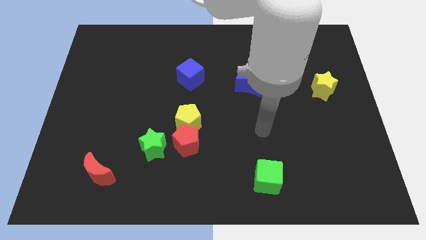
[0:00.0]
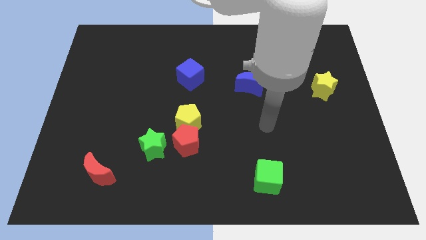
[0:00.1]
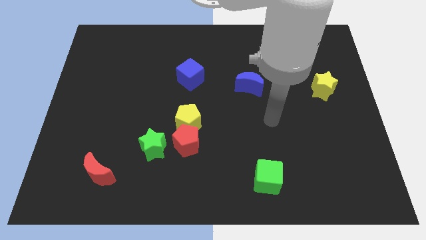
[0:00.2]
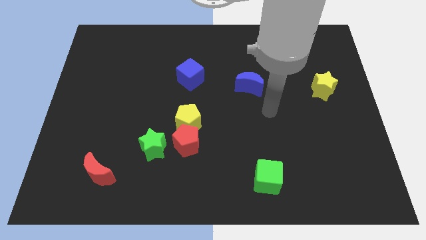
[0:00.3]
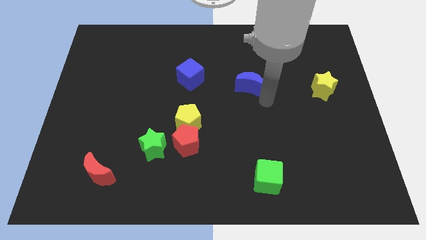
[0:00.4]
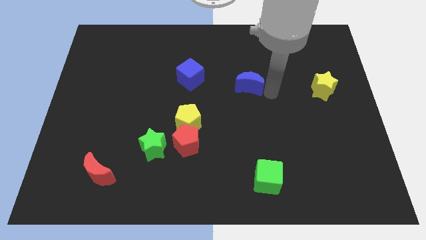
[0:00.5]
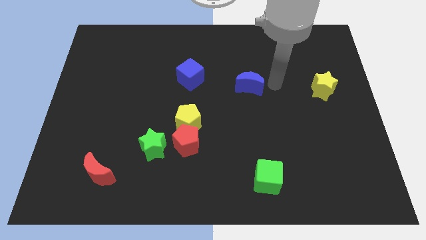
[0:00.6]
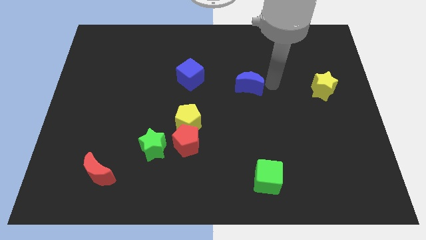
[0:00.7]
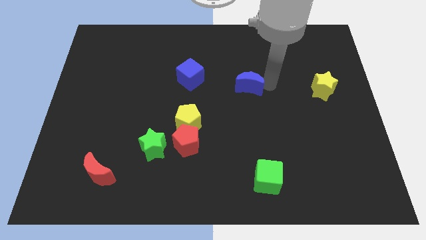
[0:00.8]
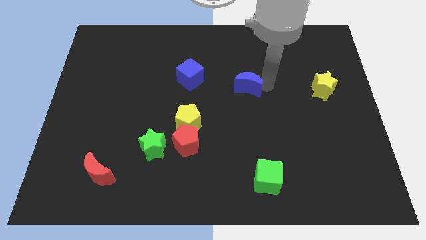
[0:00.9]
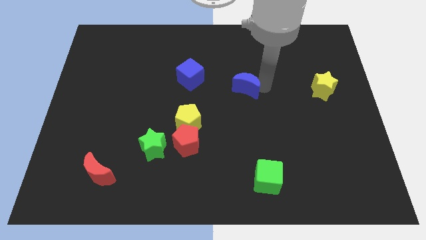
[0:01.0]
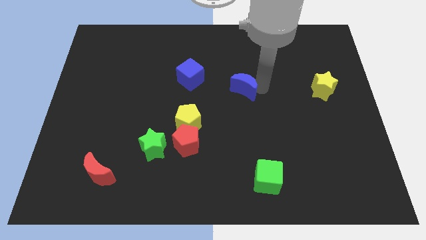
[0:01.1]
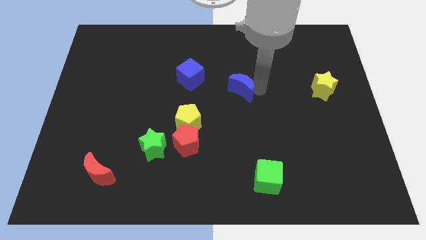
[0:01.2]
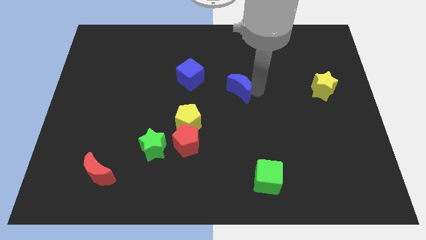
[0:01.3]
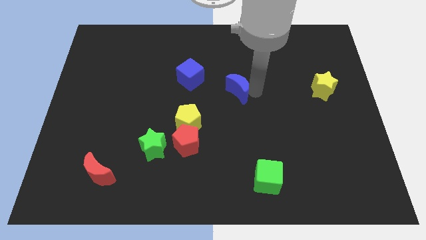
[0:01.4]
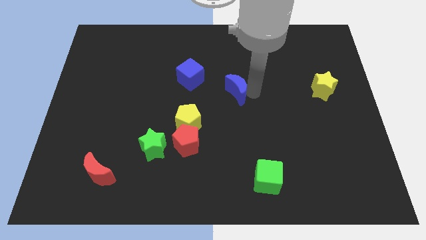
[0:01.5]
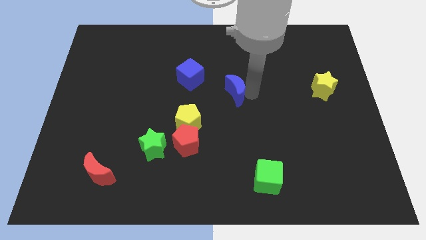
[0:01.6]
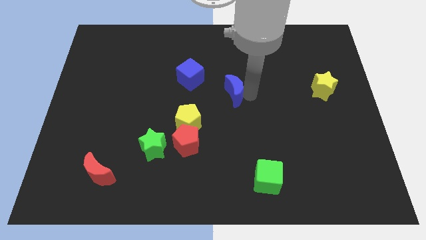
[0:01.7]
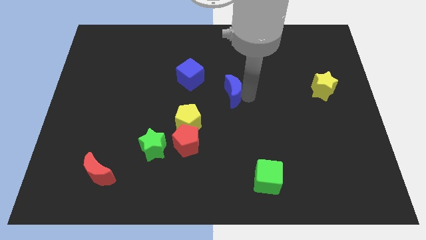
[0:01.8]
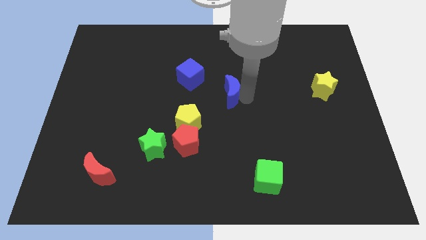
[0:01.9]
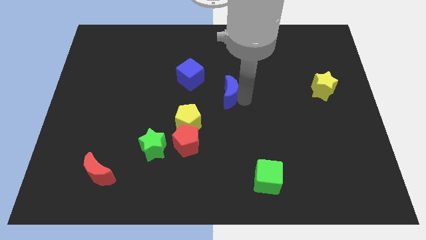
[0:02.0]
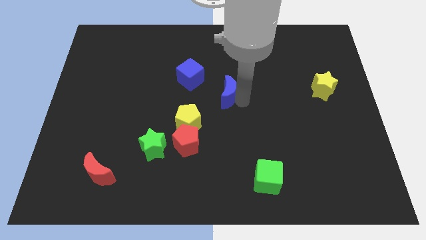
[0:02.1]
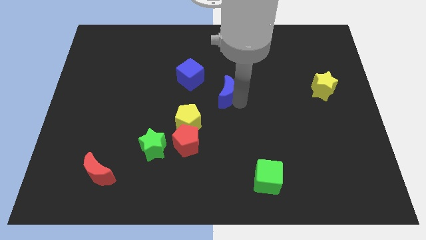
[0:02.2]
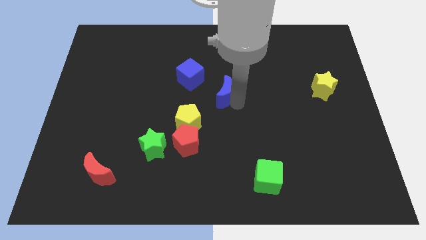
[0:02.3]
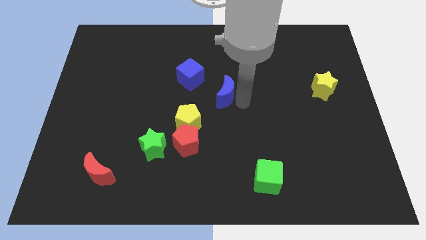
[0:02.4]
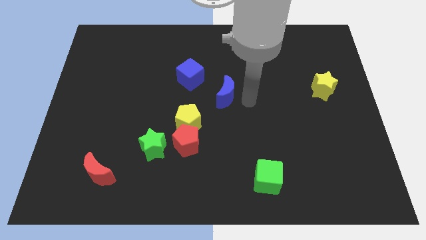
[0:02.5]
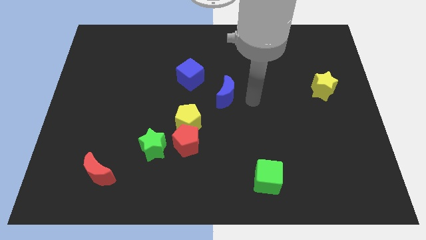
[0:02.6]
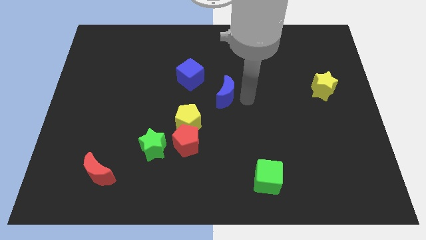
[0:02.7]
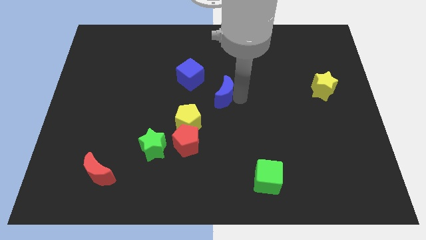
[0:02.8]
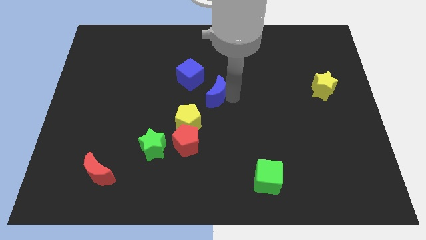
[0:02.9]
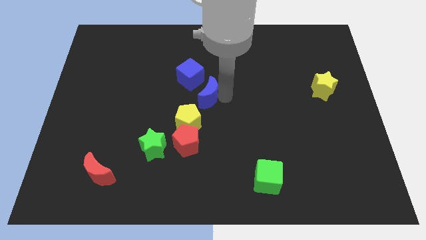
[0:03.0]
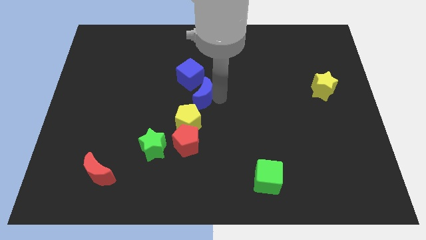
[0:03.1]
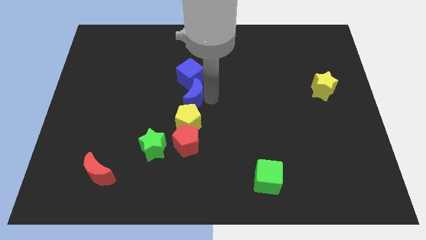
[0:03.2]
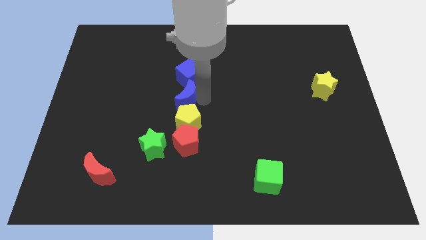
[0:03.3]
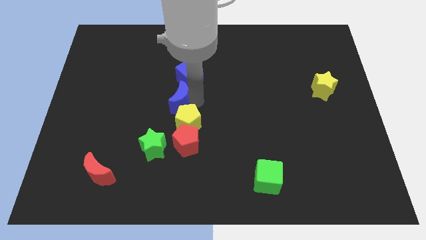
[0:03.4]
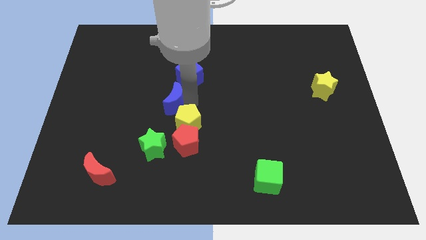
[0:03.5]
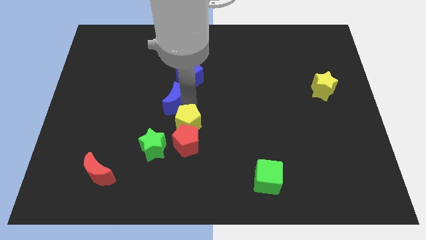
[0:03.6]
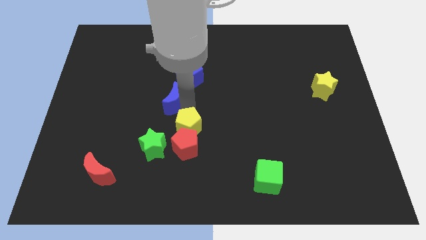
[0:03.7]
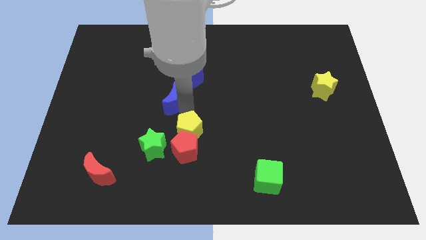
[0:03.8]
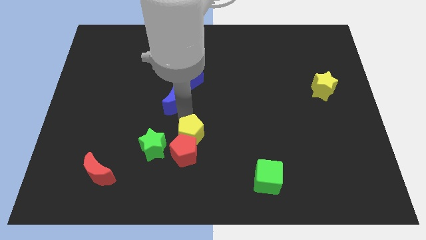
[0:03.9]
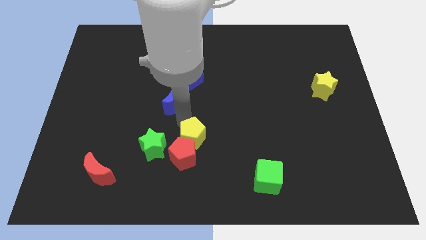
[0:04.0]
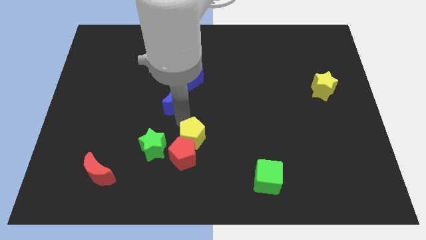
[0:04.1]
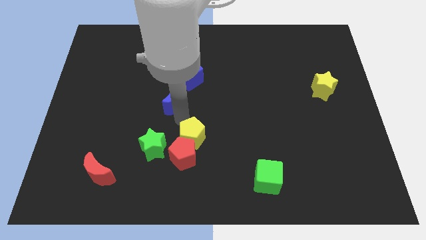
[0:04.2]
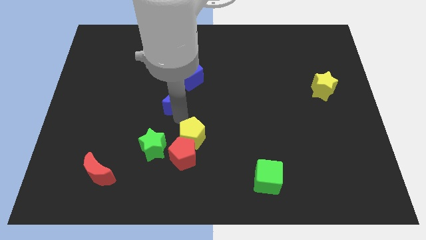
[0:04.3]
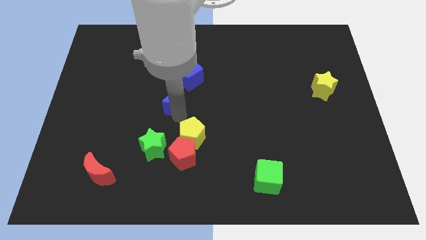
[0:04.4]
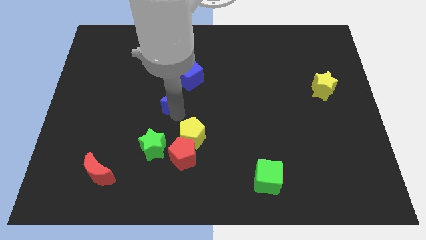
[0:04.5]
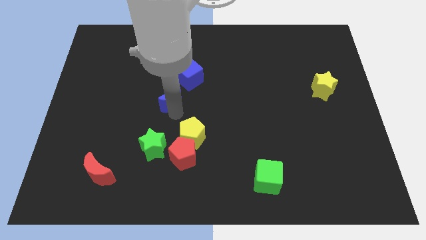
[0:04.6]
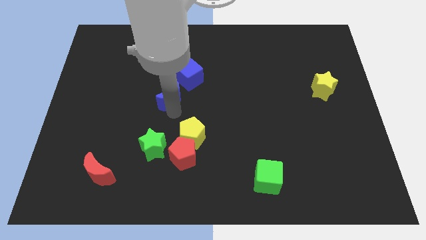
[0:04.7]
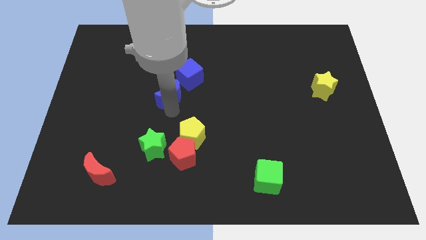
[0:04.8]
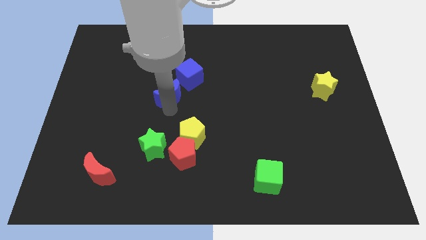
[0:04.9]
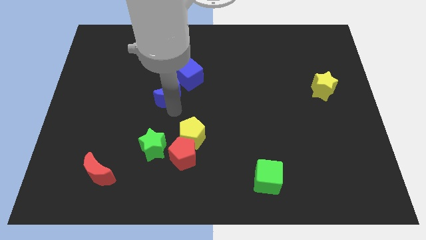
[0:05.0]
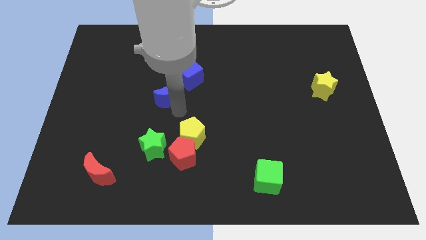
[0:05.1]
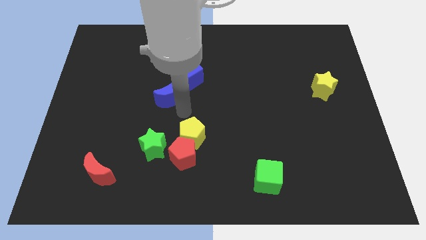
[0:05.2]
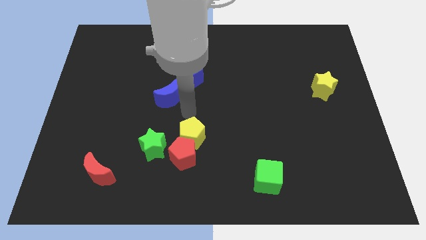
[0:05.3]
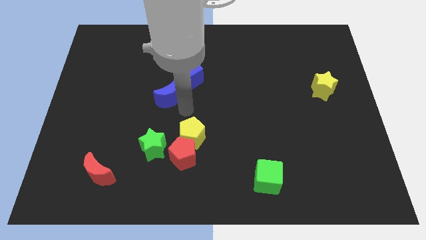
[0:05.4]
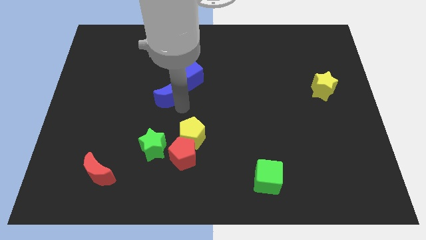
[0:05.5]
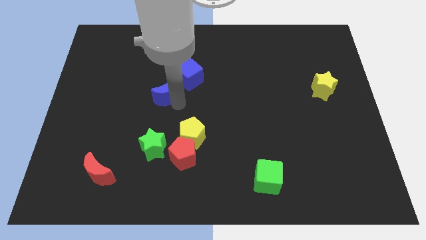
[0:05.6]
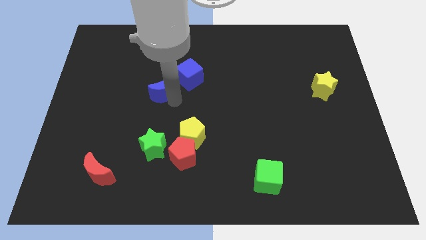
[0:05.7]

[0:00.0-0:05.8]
push the blue moon left

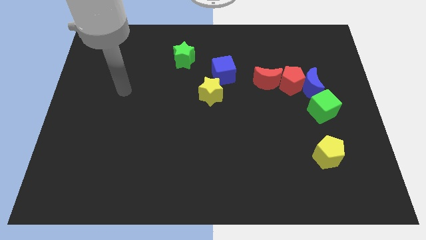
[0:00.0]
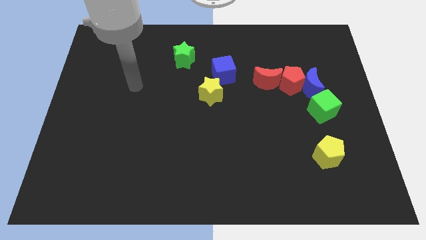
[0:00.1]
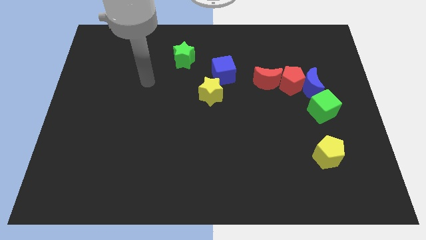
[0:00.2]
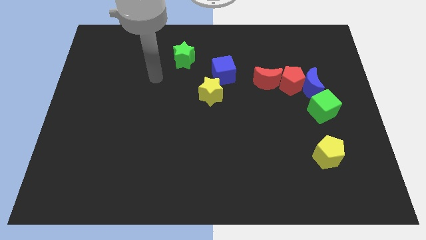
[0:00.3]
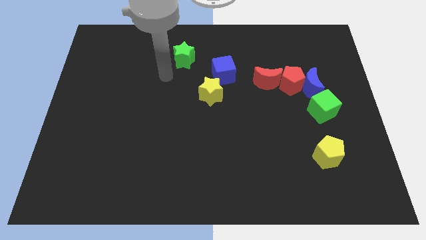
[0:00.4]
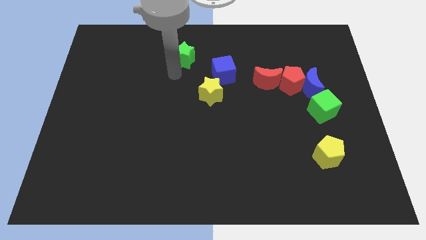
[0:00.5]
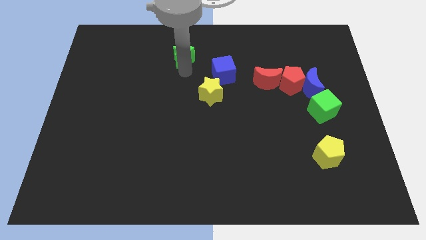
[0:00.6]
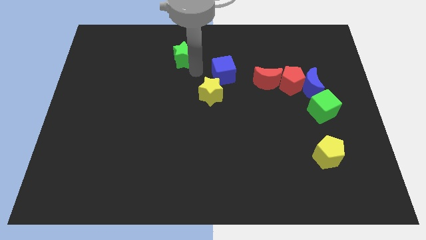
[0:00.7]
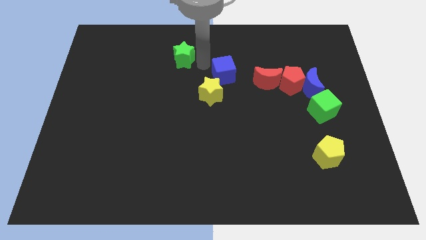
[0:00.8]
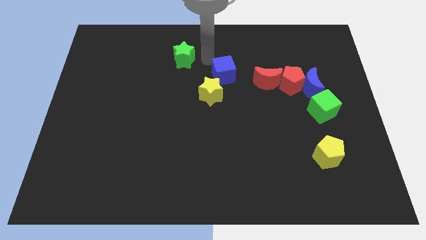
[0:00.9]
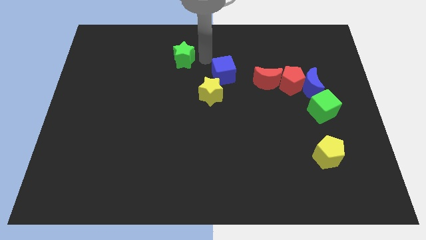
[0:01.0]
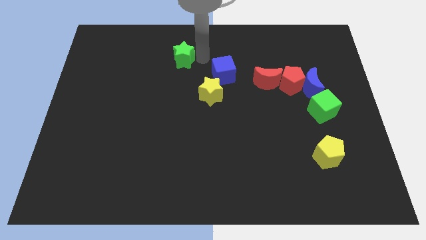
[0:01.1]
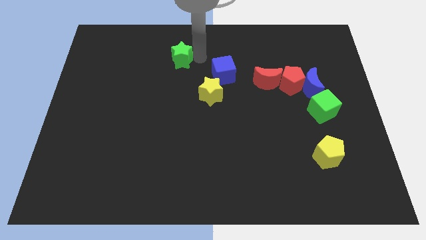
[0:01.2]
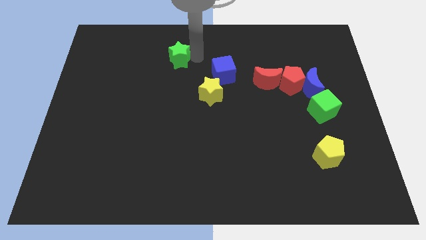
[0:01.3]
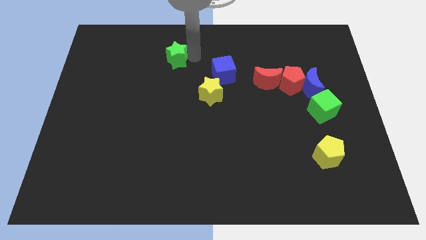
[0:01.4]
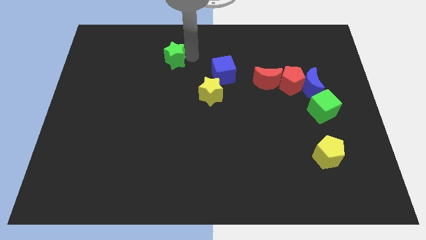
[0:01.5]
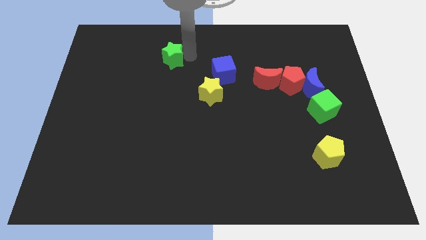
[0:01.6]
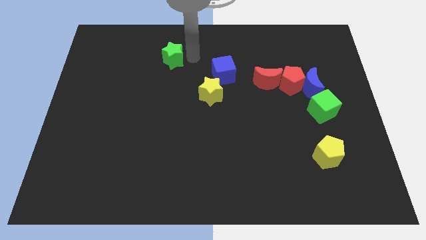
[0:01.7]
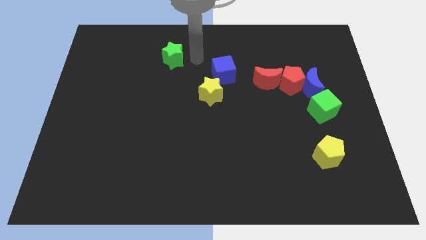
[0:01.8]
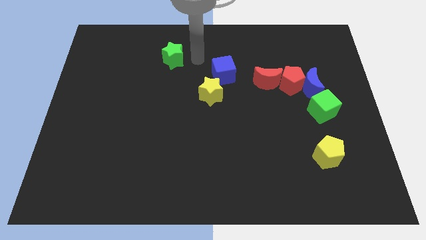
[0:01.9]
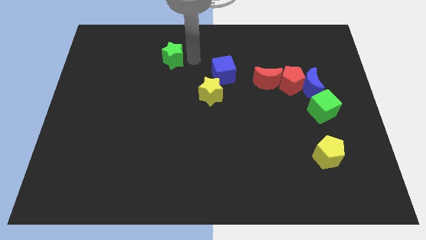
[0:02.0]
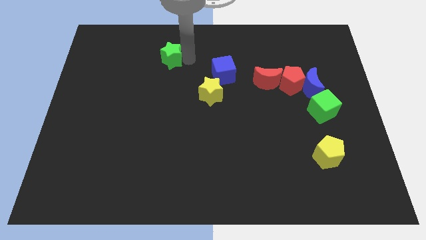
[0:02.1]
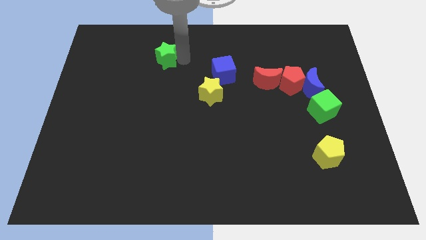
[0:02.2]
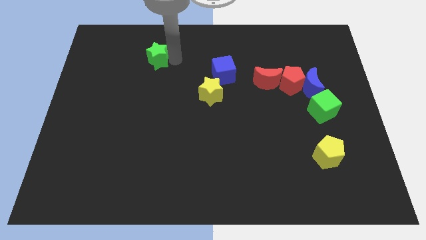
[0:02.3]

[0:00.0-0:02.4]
move the green star to the left a little

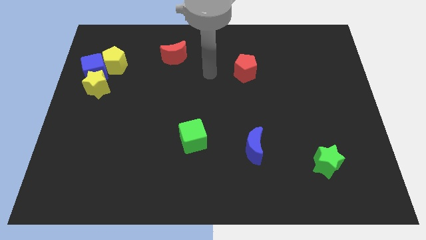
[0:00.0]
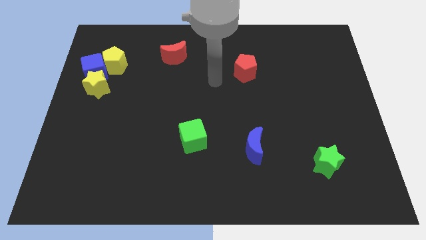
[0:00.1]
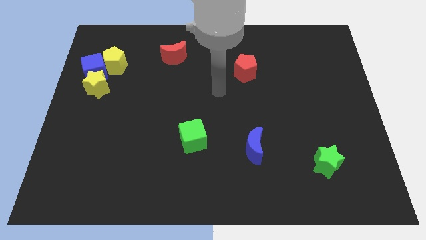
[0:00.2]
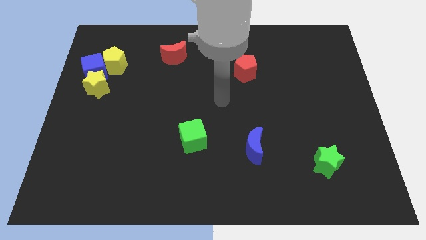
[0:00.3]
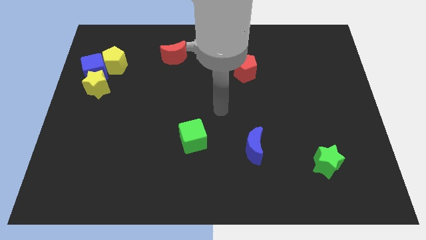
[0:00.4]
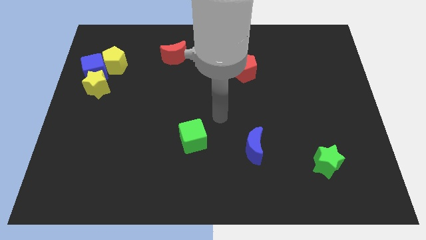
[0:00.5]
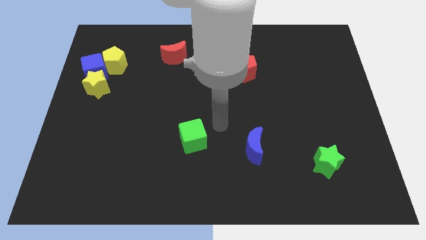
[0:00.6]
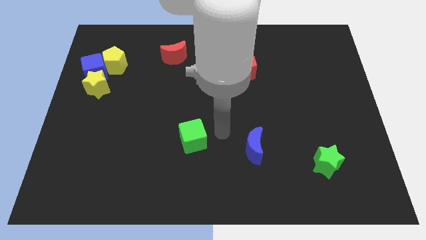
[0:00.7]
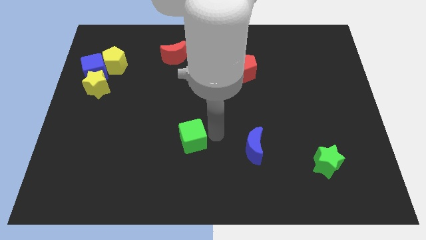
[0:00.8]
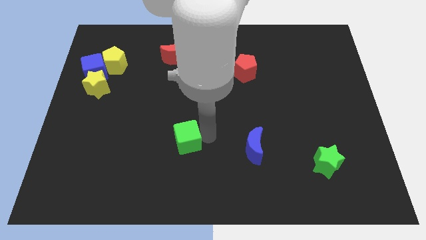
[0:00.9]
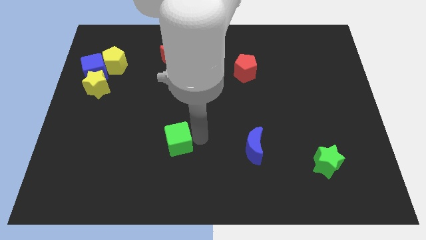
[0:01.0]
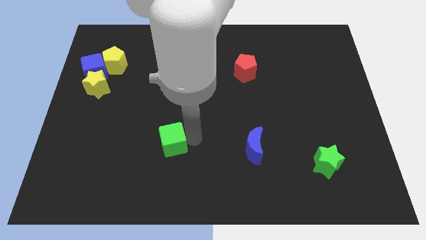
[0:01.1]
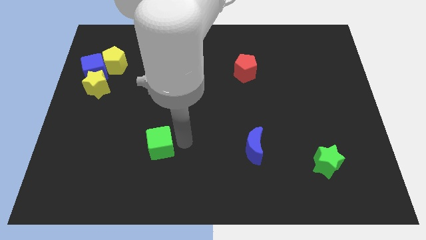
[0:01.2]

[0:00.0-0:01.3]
slightly move the green cube to the left
